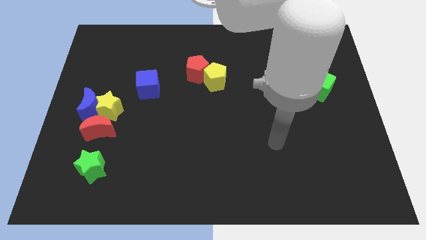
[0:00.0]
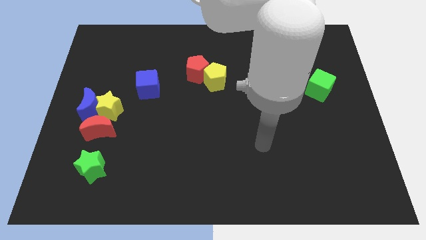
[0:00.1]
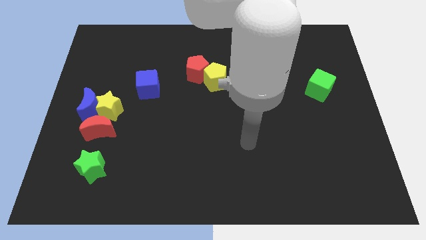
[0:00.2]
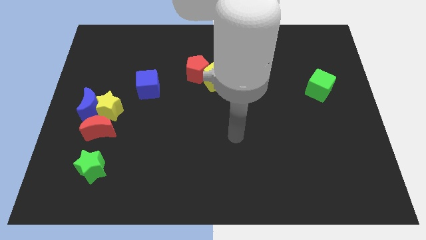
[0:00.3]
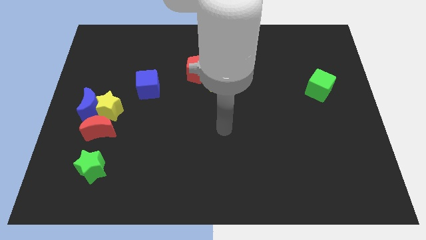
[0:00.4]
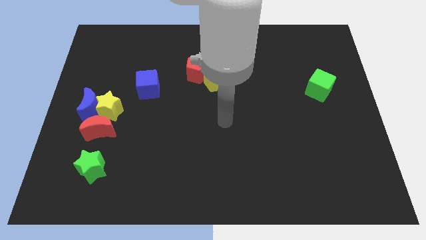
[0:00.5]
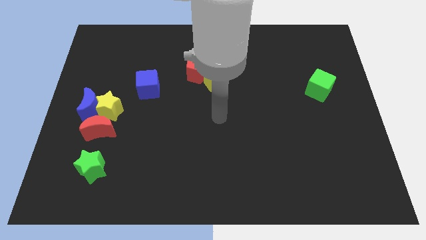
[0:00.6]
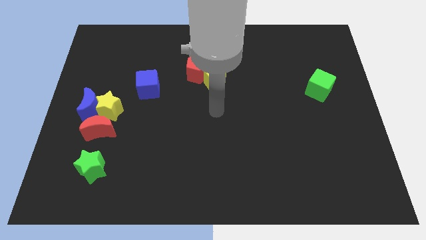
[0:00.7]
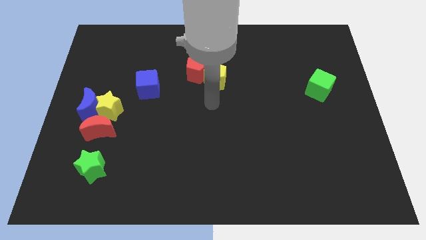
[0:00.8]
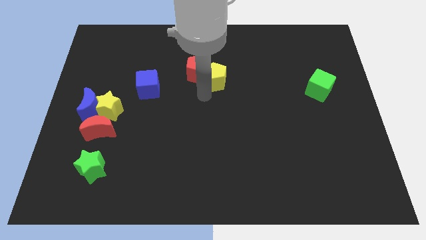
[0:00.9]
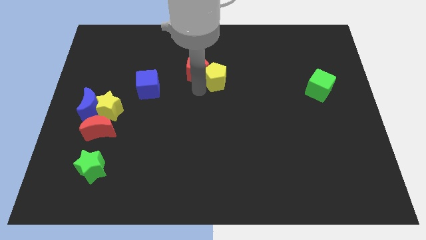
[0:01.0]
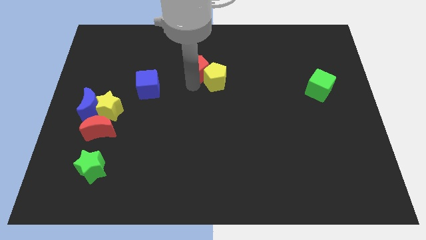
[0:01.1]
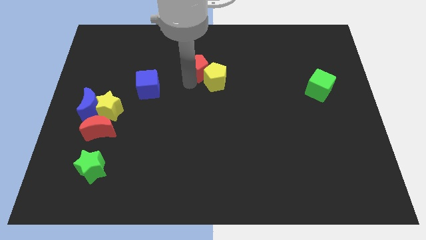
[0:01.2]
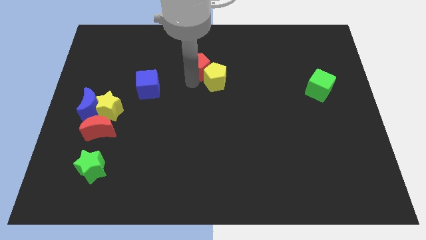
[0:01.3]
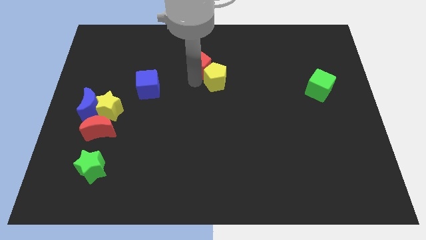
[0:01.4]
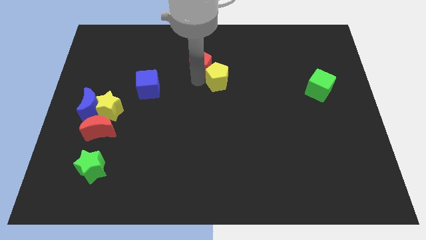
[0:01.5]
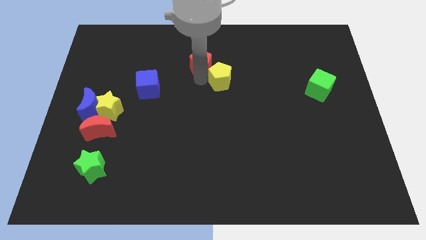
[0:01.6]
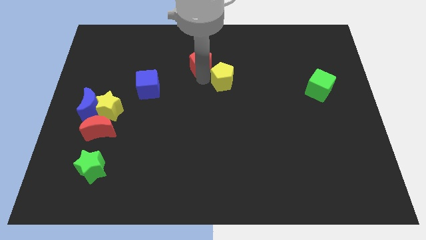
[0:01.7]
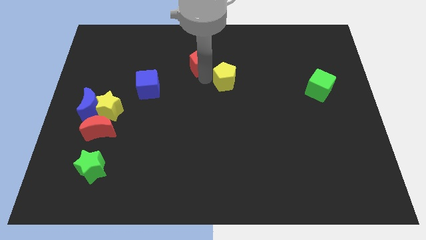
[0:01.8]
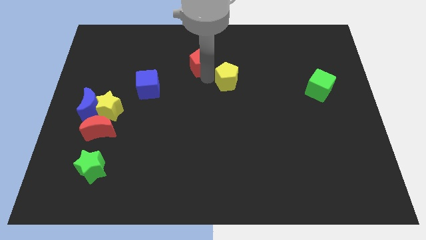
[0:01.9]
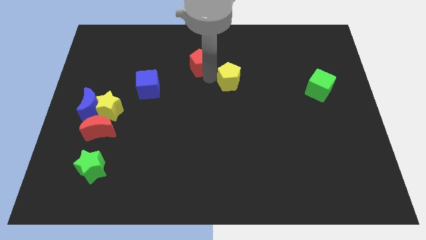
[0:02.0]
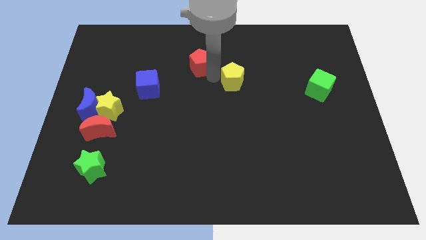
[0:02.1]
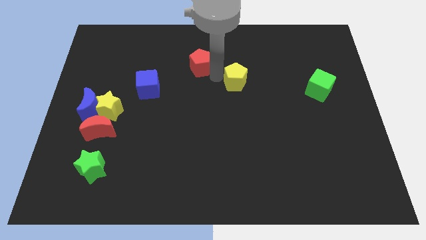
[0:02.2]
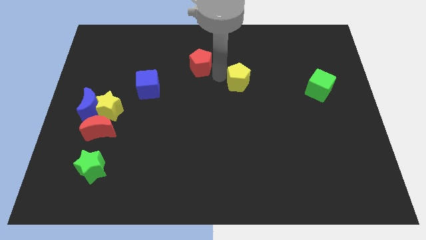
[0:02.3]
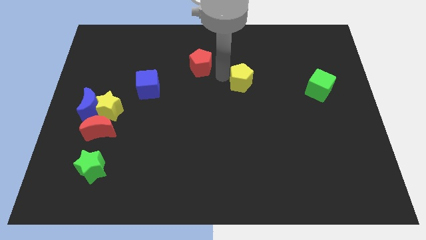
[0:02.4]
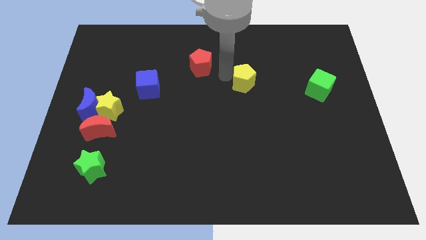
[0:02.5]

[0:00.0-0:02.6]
move the yellow pentagon right slightly

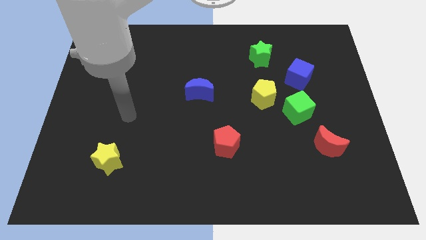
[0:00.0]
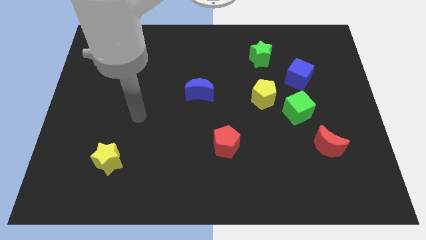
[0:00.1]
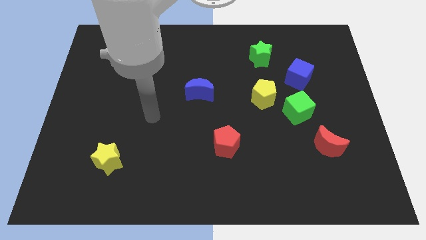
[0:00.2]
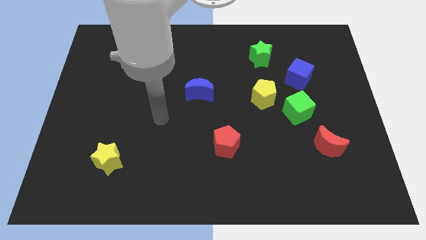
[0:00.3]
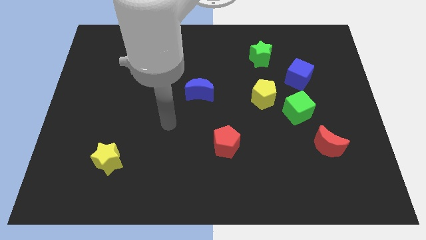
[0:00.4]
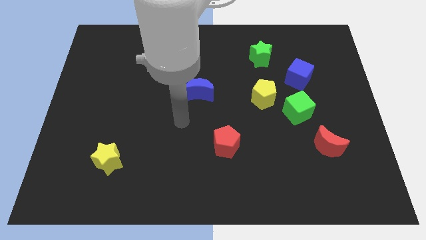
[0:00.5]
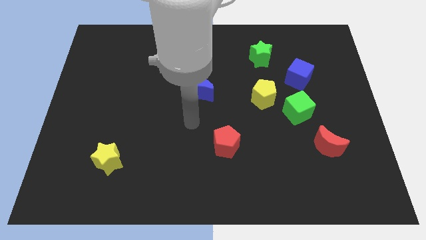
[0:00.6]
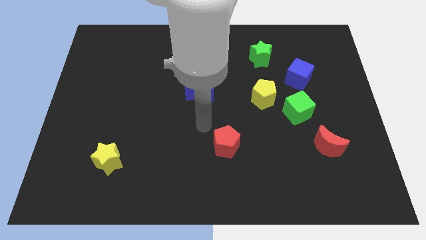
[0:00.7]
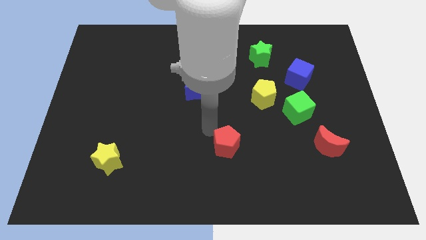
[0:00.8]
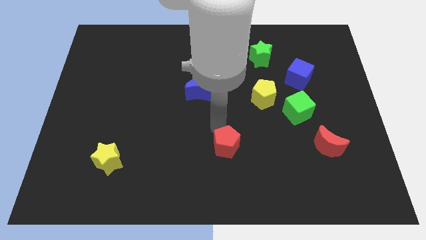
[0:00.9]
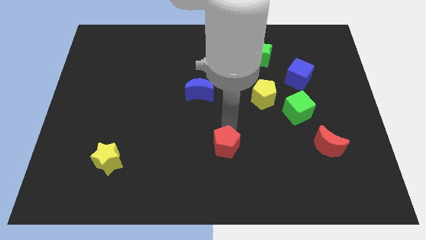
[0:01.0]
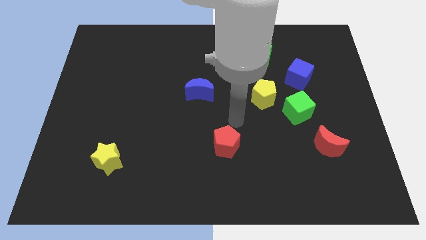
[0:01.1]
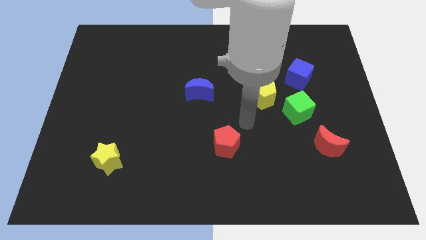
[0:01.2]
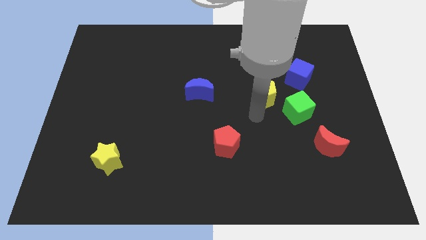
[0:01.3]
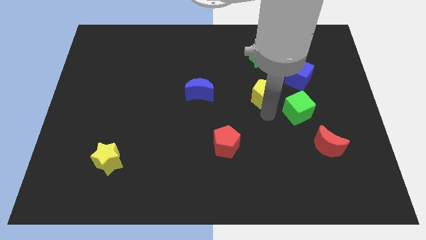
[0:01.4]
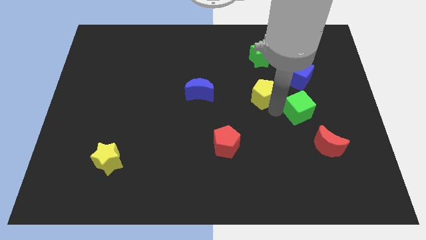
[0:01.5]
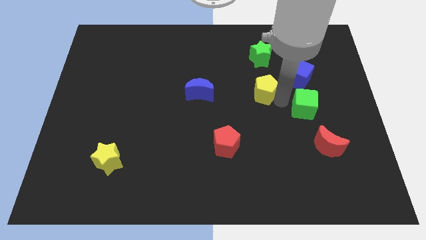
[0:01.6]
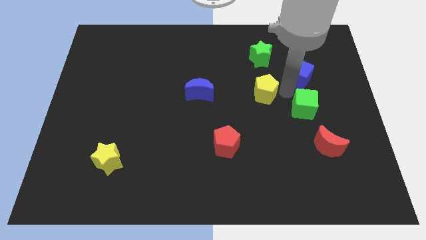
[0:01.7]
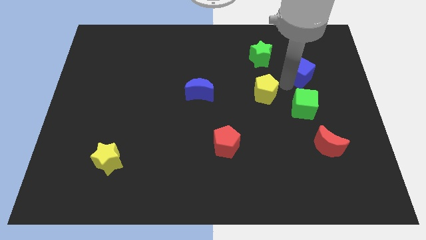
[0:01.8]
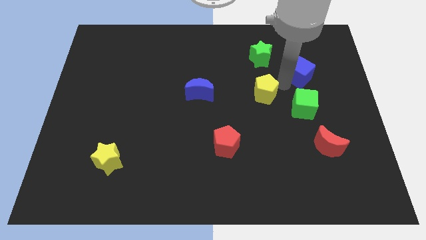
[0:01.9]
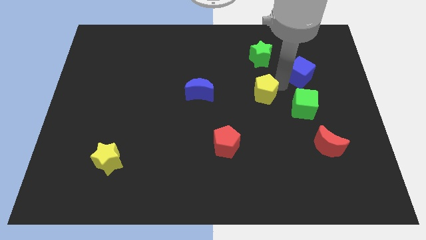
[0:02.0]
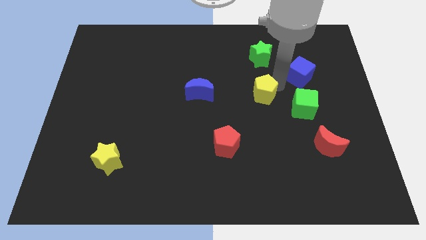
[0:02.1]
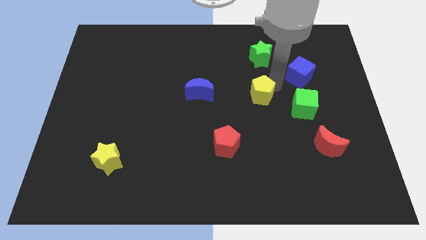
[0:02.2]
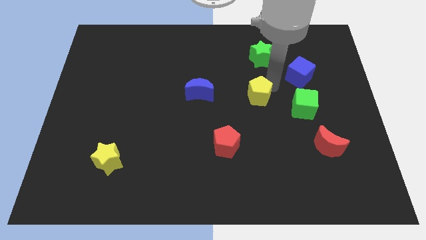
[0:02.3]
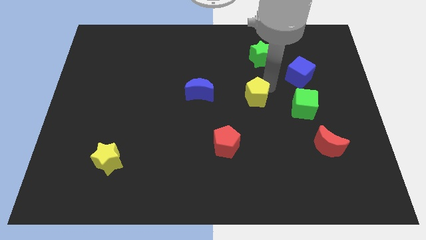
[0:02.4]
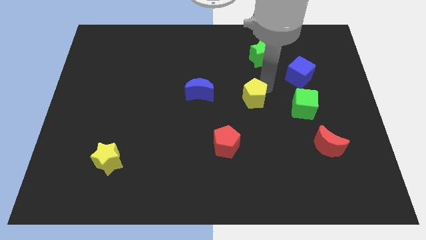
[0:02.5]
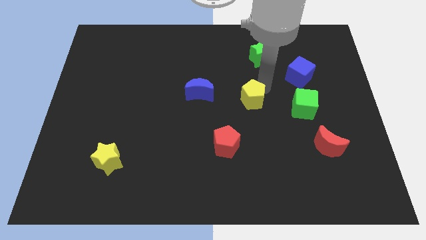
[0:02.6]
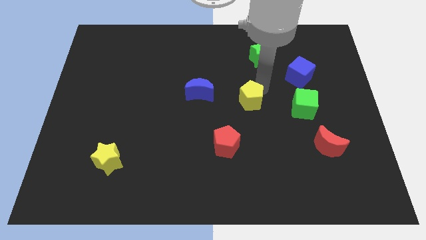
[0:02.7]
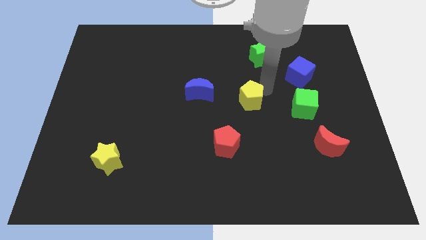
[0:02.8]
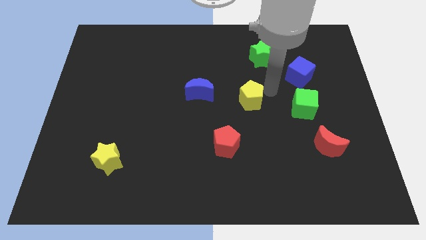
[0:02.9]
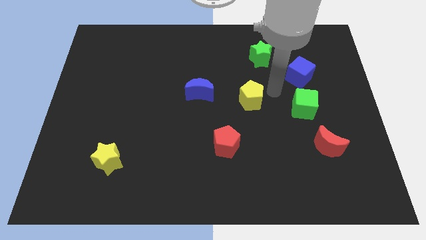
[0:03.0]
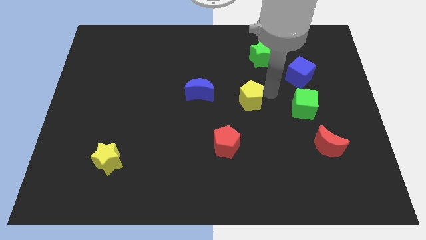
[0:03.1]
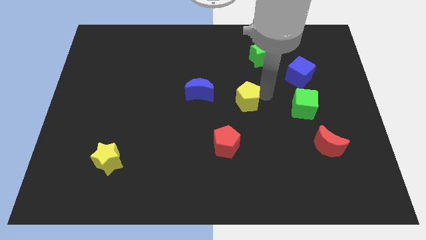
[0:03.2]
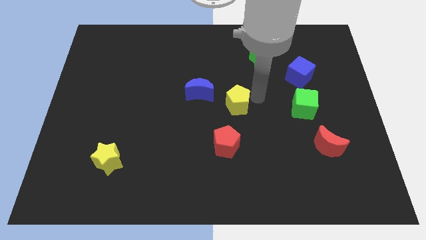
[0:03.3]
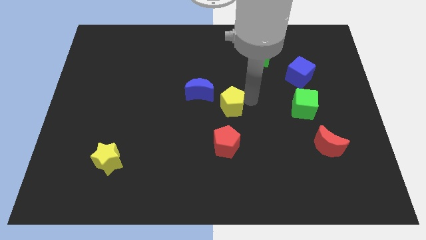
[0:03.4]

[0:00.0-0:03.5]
push the yellow pentagon a bit to the left

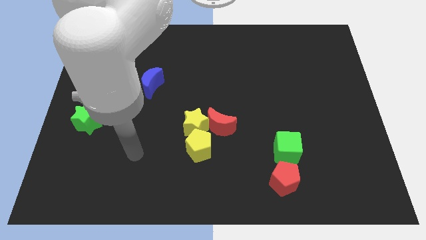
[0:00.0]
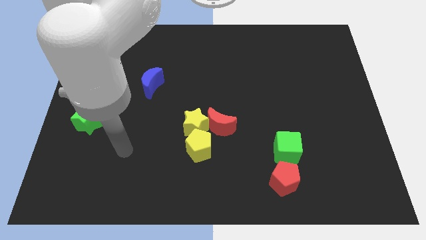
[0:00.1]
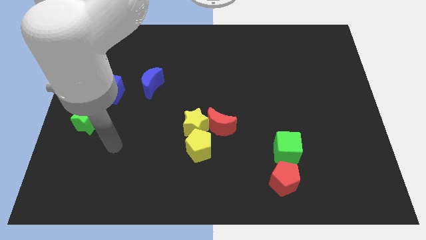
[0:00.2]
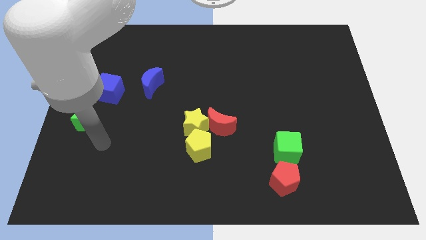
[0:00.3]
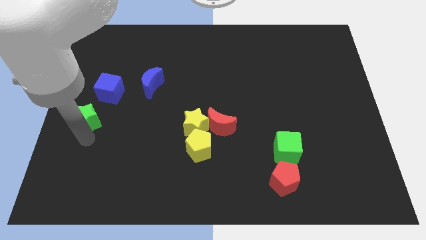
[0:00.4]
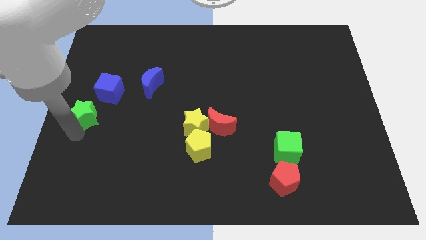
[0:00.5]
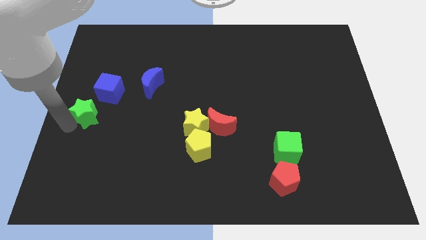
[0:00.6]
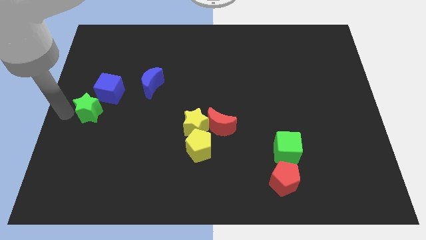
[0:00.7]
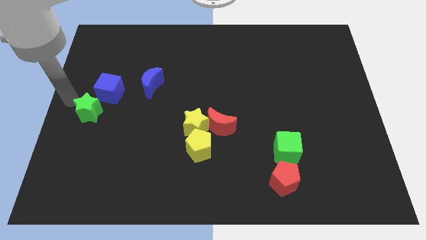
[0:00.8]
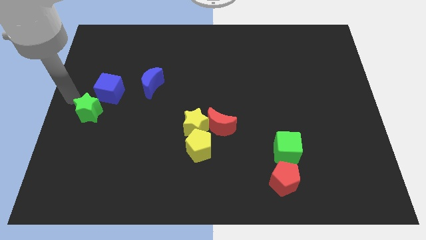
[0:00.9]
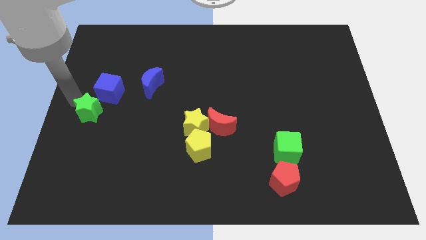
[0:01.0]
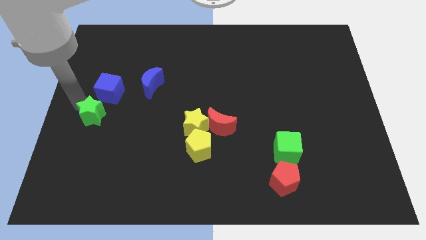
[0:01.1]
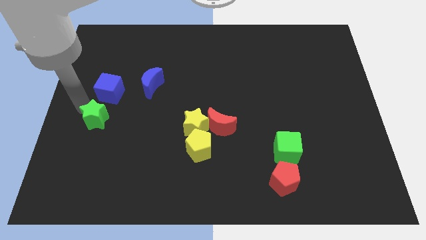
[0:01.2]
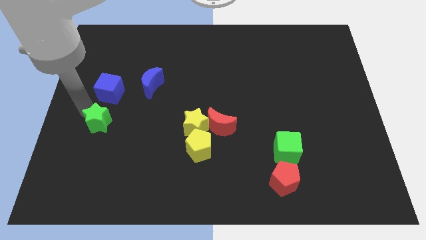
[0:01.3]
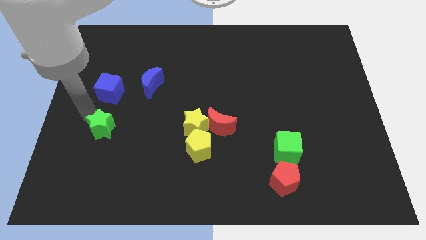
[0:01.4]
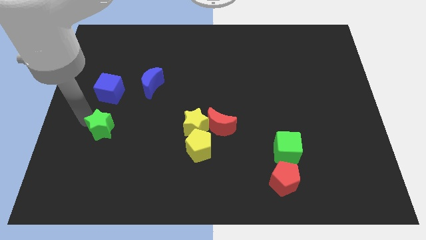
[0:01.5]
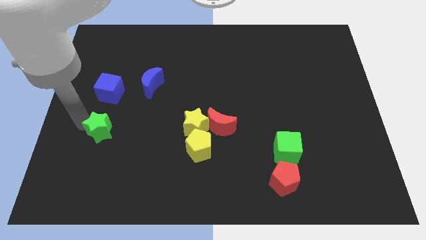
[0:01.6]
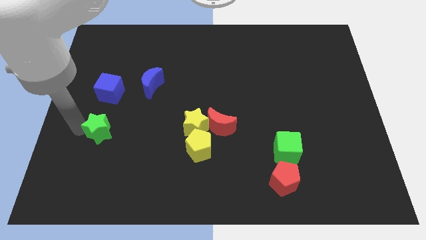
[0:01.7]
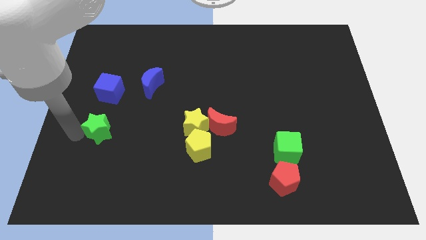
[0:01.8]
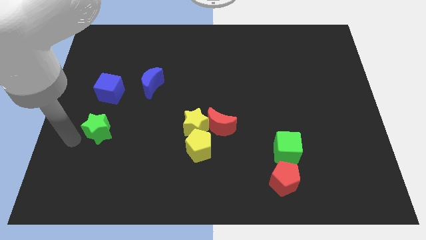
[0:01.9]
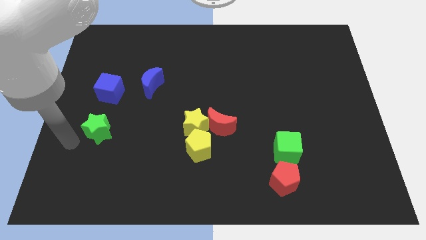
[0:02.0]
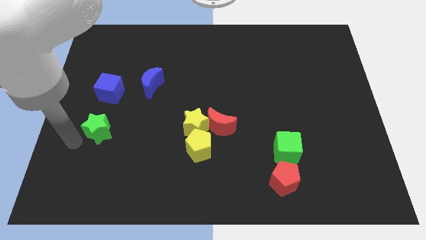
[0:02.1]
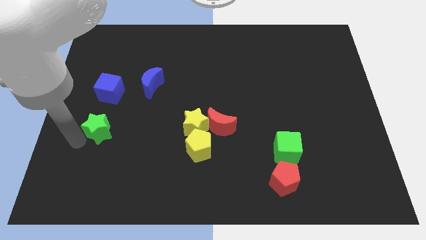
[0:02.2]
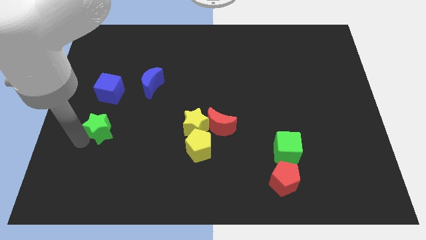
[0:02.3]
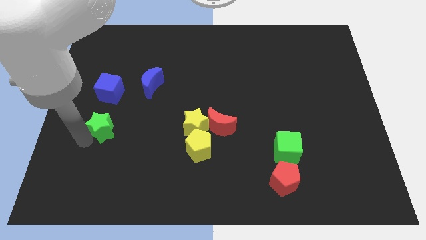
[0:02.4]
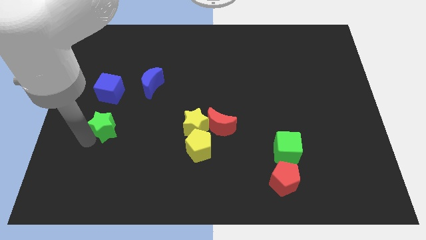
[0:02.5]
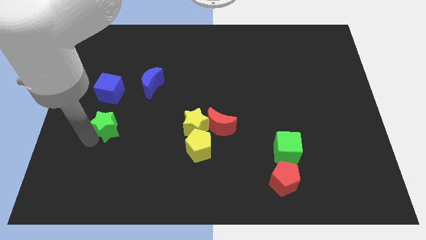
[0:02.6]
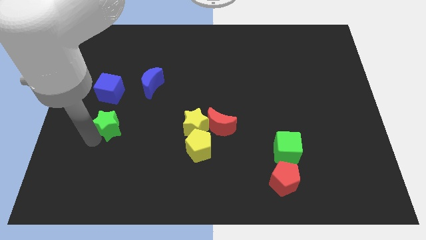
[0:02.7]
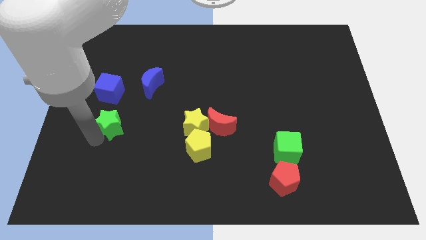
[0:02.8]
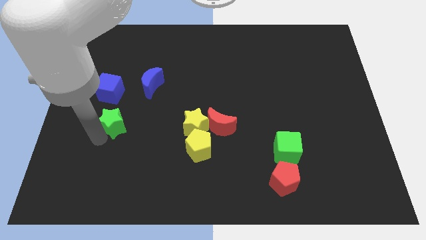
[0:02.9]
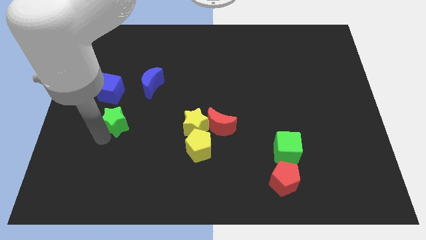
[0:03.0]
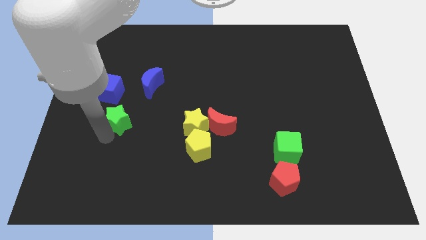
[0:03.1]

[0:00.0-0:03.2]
slide the green star a little bit right
